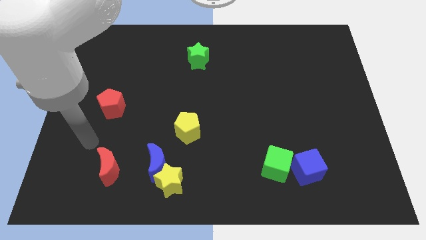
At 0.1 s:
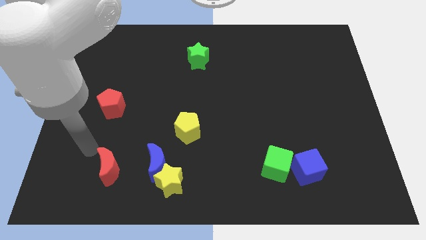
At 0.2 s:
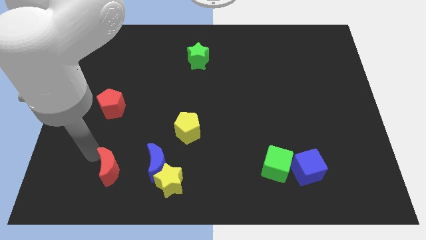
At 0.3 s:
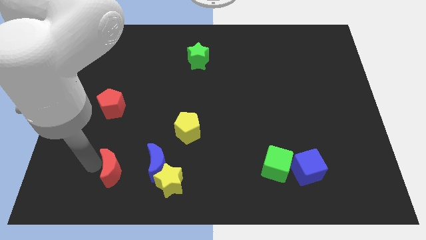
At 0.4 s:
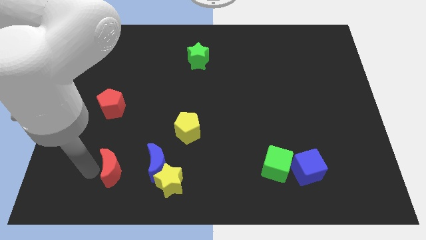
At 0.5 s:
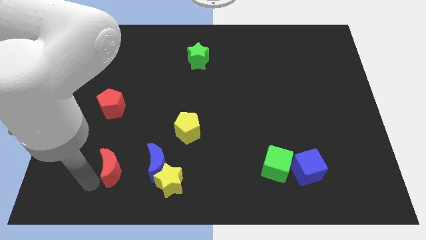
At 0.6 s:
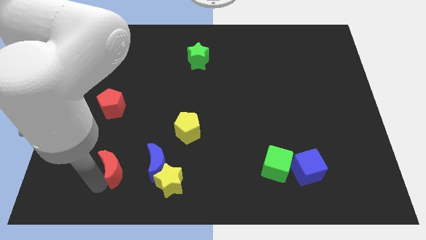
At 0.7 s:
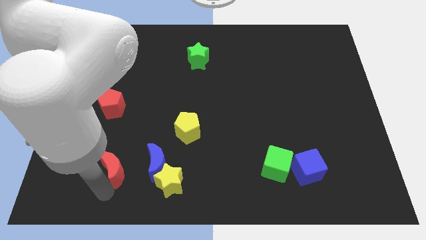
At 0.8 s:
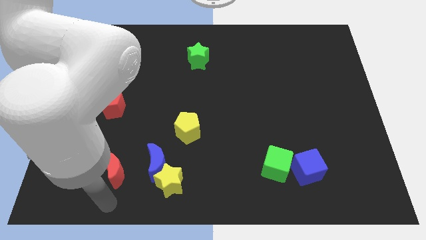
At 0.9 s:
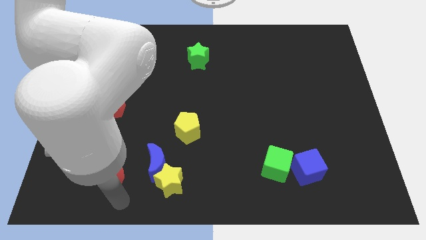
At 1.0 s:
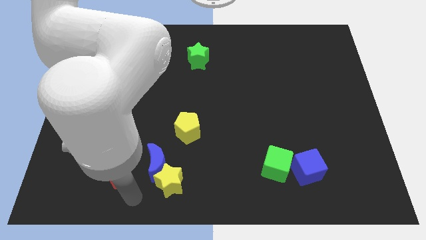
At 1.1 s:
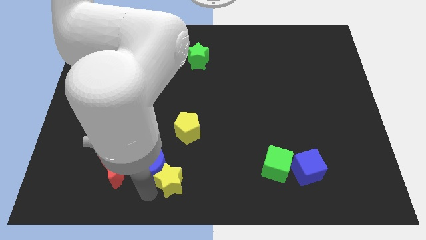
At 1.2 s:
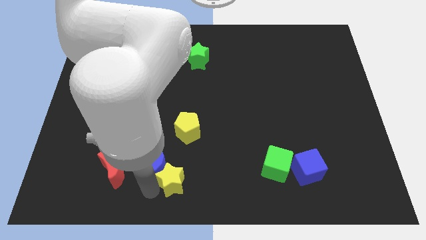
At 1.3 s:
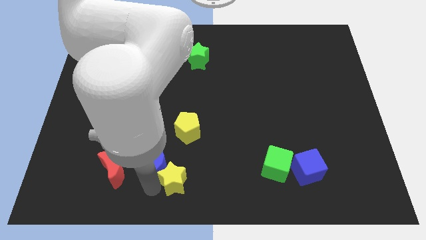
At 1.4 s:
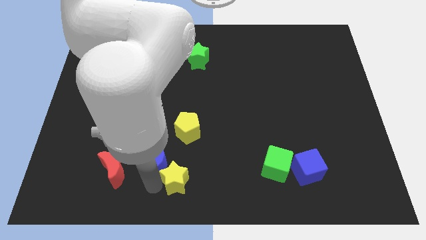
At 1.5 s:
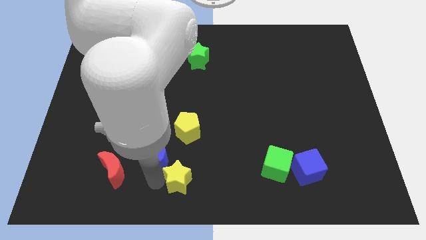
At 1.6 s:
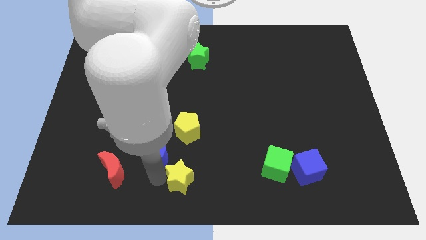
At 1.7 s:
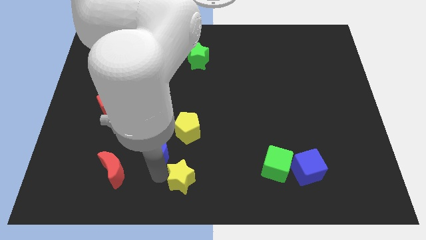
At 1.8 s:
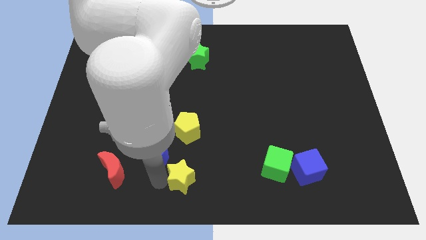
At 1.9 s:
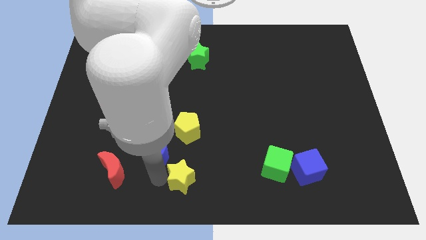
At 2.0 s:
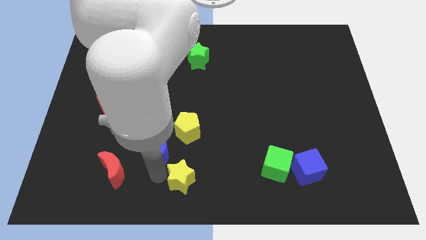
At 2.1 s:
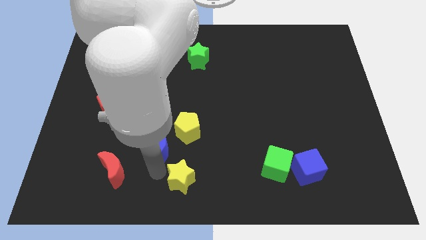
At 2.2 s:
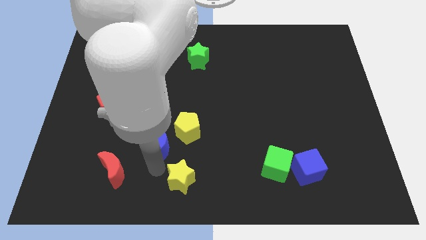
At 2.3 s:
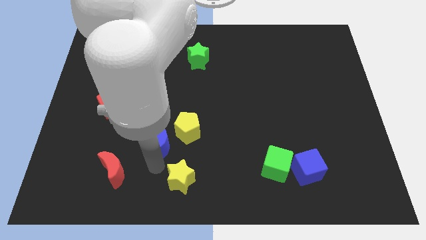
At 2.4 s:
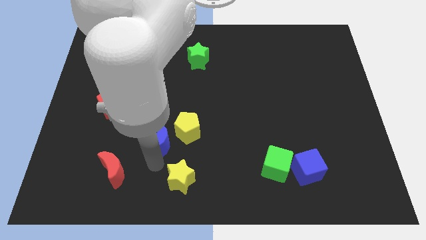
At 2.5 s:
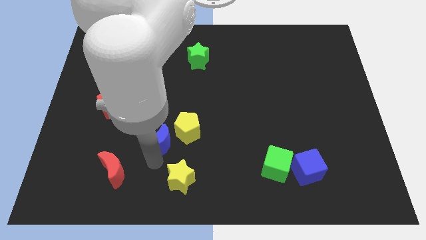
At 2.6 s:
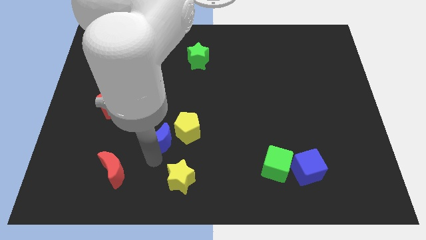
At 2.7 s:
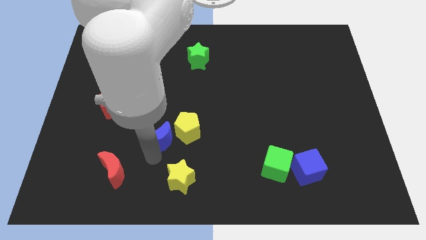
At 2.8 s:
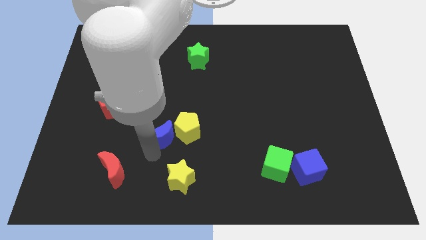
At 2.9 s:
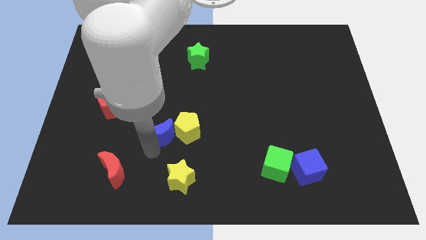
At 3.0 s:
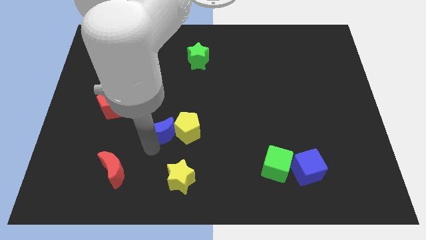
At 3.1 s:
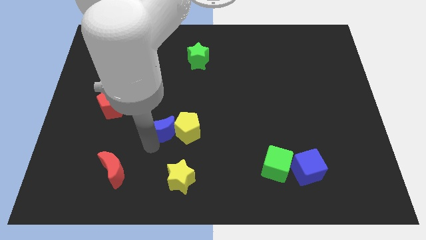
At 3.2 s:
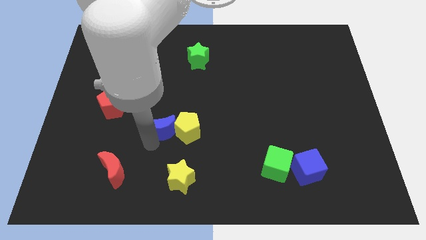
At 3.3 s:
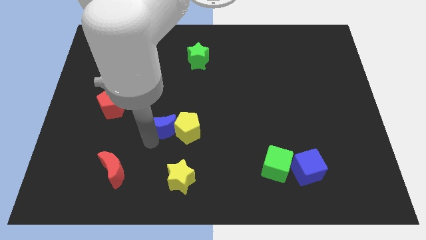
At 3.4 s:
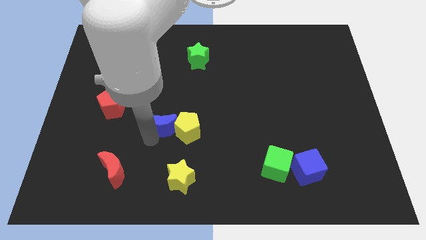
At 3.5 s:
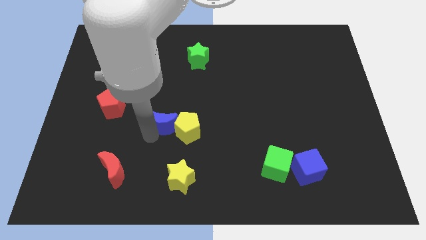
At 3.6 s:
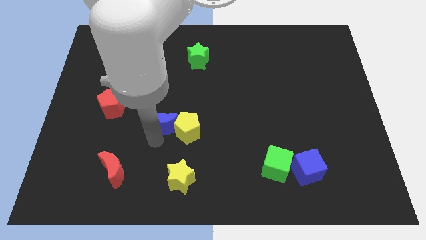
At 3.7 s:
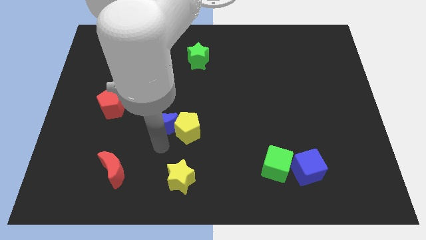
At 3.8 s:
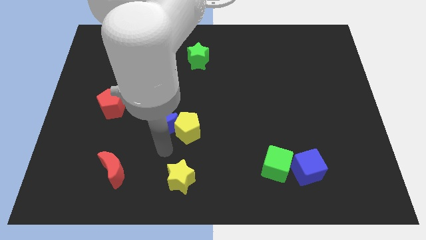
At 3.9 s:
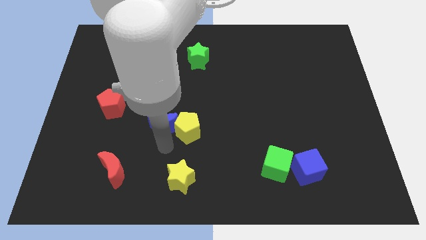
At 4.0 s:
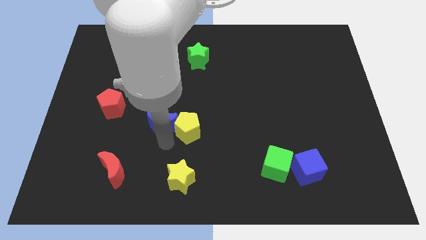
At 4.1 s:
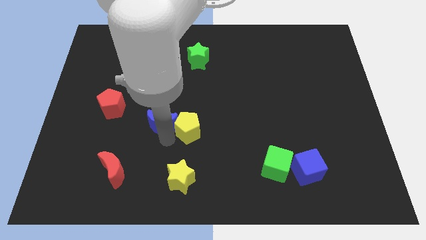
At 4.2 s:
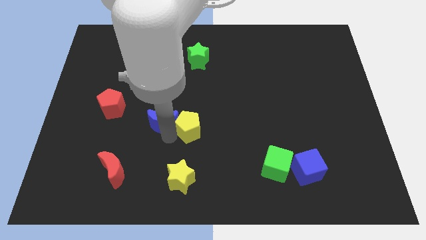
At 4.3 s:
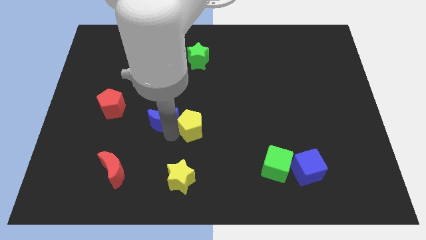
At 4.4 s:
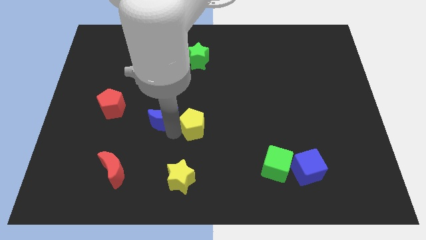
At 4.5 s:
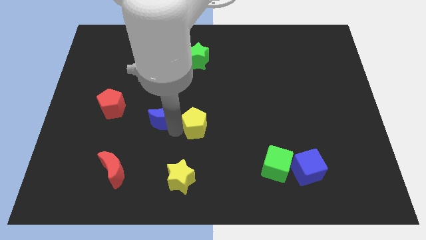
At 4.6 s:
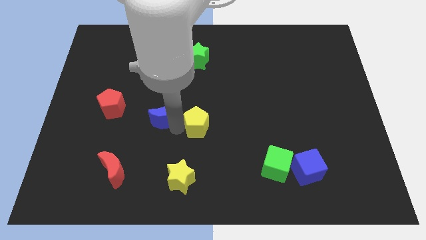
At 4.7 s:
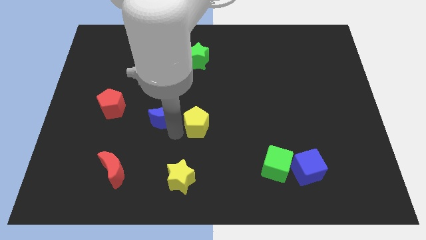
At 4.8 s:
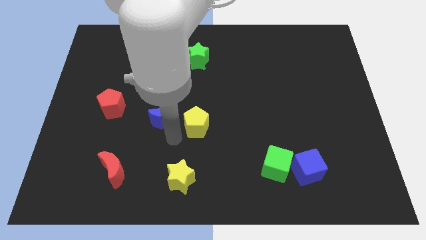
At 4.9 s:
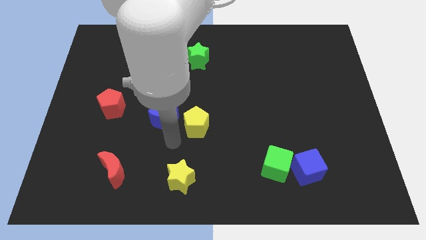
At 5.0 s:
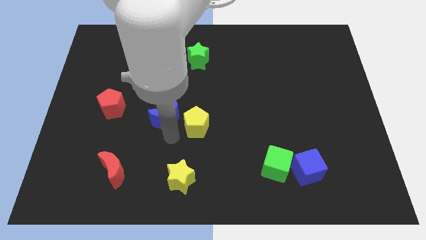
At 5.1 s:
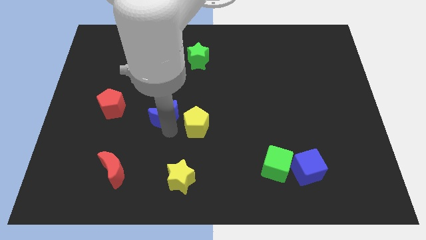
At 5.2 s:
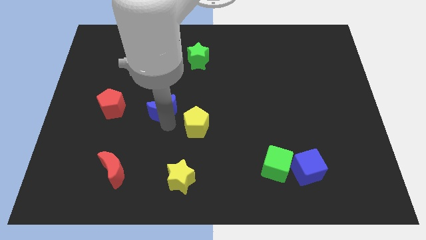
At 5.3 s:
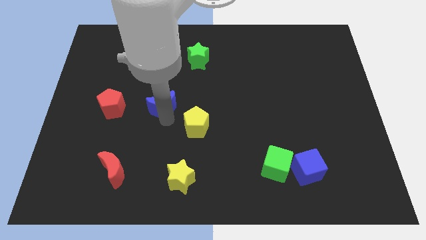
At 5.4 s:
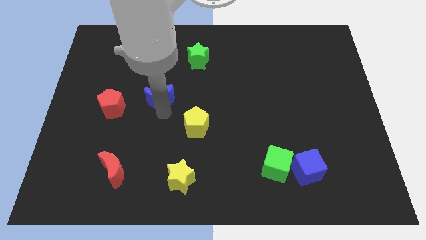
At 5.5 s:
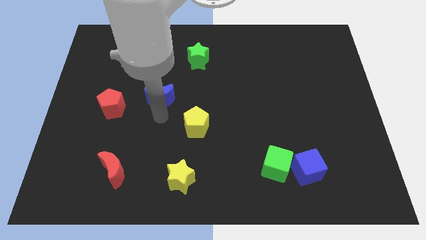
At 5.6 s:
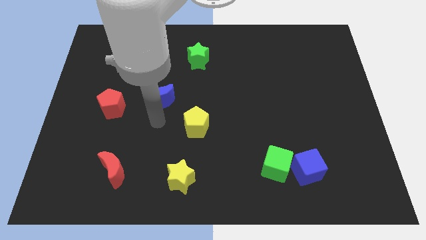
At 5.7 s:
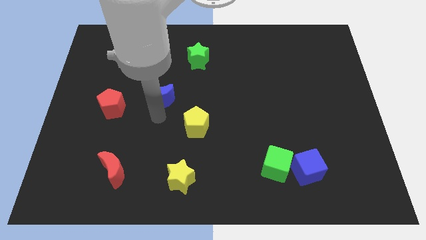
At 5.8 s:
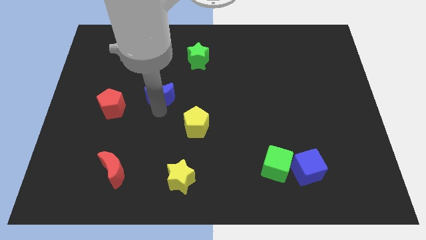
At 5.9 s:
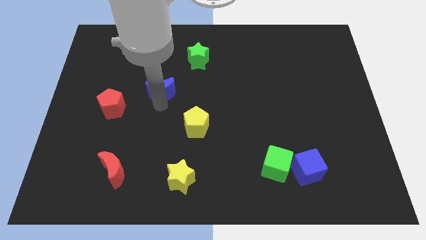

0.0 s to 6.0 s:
push the blue moon upwards

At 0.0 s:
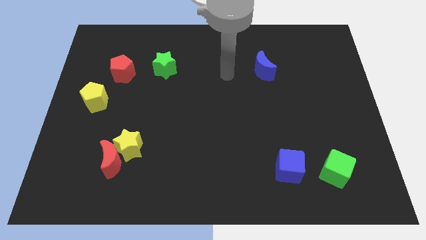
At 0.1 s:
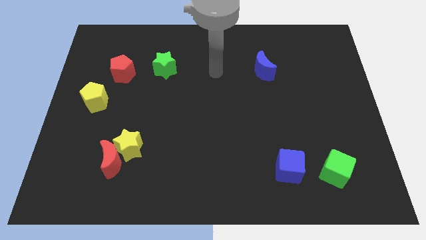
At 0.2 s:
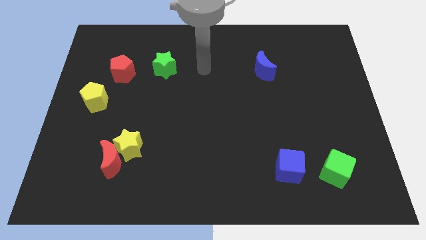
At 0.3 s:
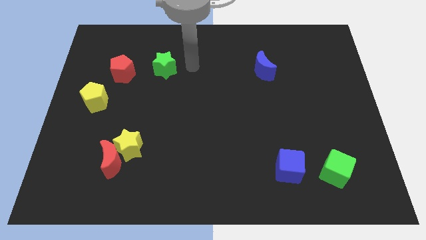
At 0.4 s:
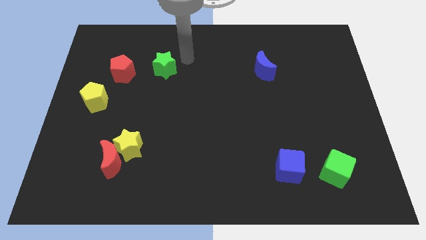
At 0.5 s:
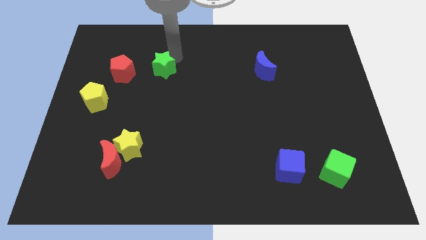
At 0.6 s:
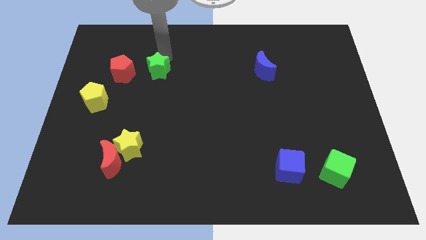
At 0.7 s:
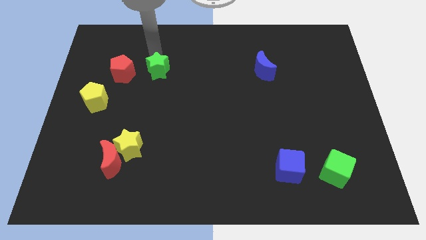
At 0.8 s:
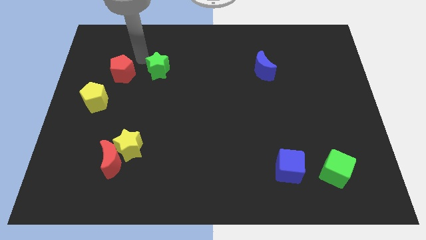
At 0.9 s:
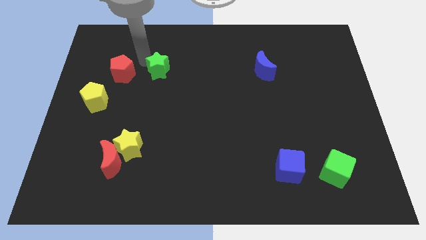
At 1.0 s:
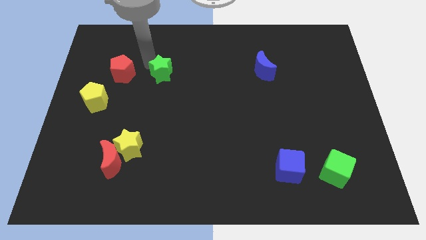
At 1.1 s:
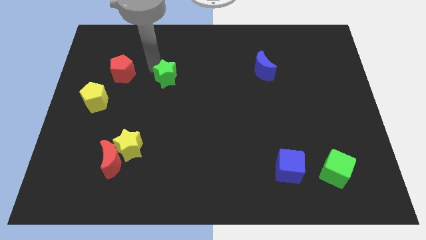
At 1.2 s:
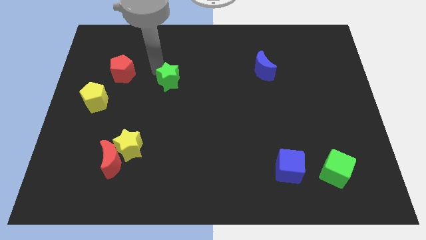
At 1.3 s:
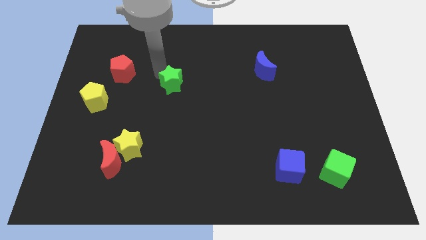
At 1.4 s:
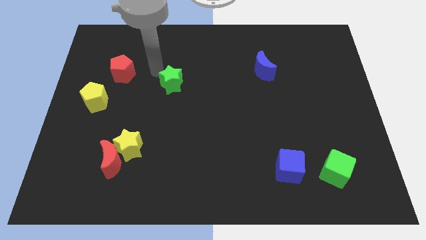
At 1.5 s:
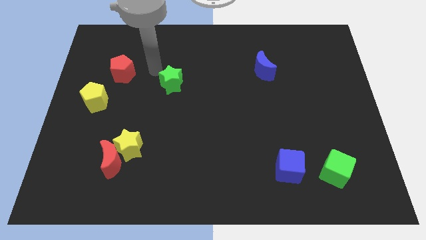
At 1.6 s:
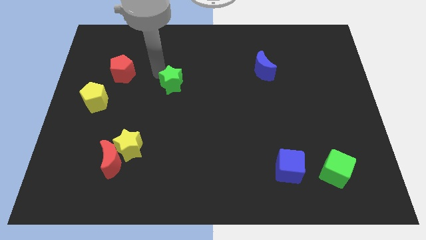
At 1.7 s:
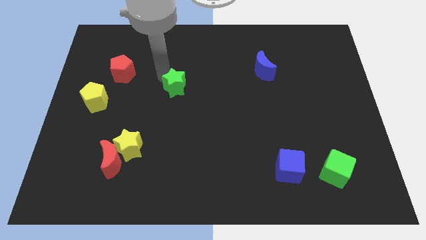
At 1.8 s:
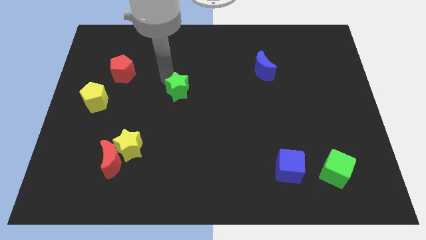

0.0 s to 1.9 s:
move the green star down and right diagonally a little

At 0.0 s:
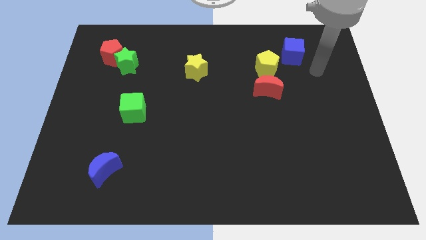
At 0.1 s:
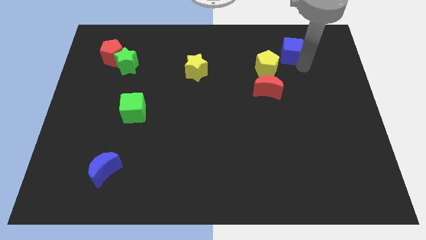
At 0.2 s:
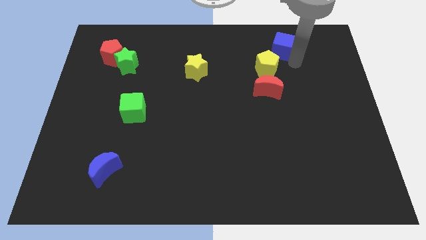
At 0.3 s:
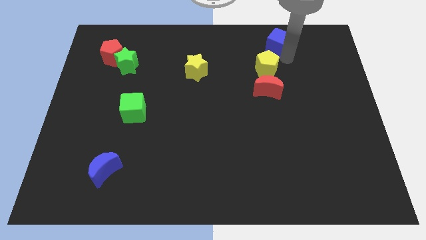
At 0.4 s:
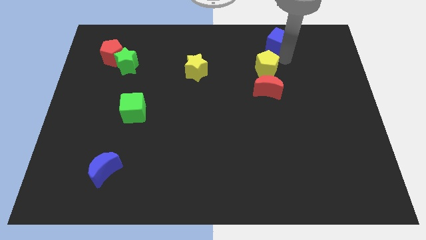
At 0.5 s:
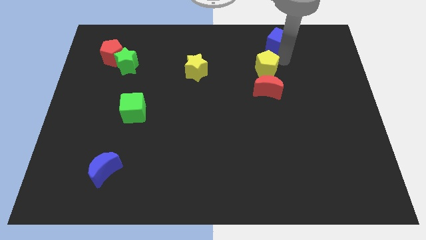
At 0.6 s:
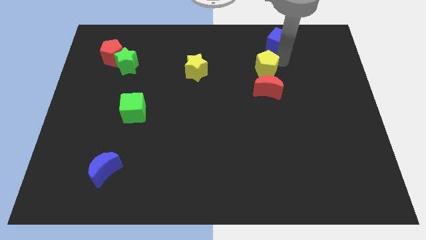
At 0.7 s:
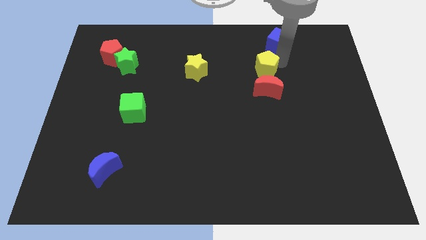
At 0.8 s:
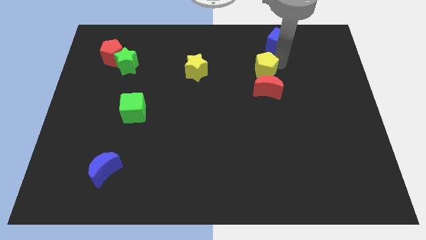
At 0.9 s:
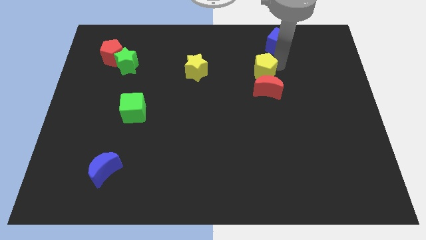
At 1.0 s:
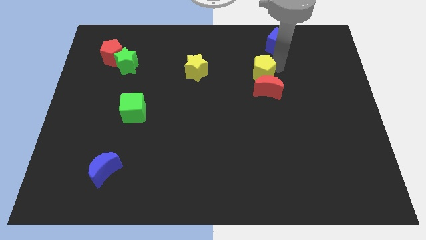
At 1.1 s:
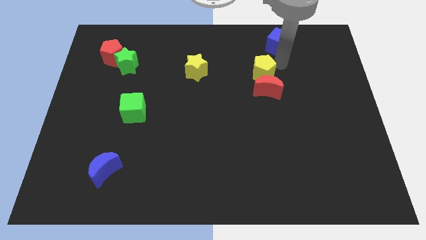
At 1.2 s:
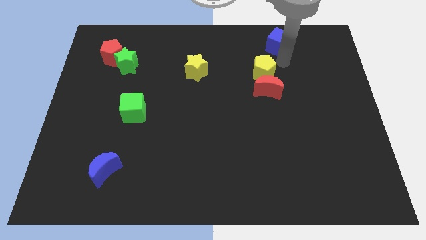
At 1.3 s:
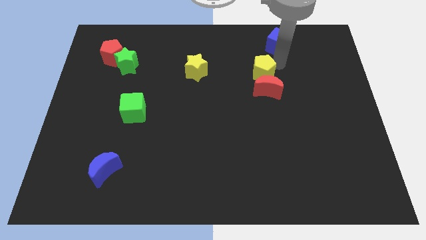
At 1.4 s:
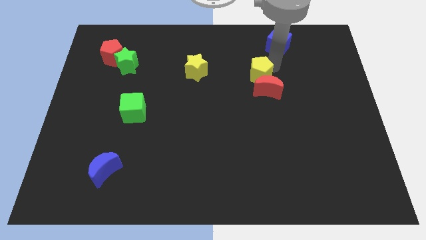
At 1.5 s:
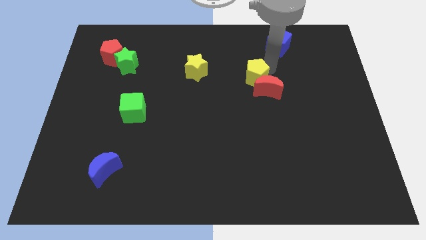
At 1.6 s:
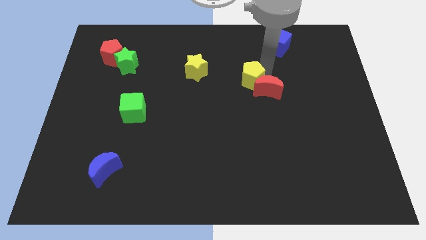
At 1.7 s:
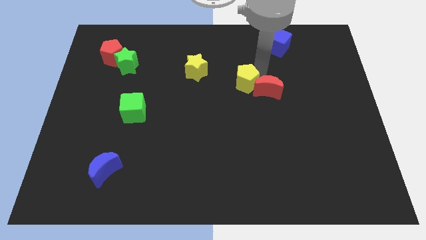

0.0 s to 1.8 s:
slightly move the yellow pentagon down and to the left diagonally
